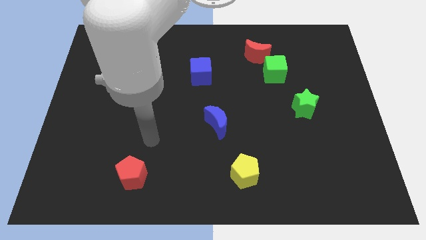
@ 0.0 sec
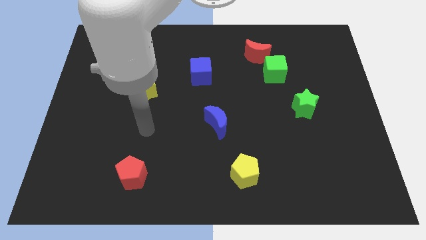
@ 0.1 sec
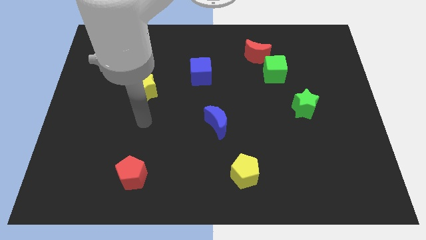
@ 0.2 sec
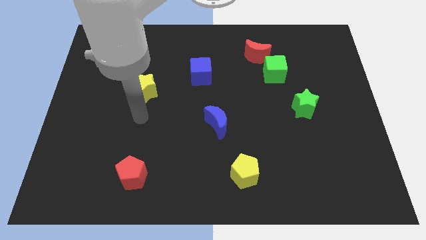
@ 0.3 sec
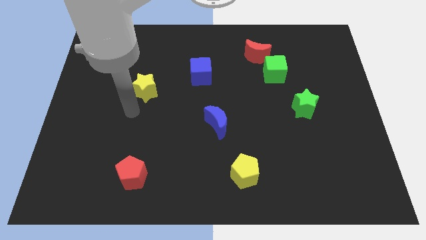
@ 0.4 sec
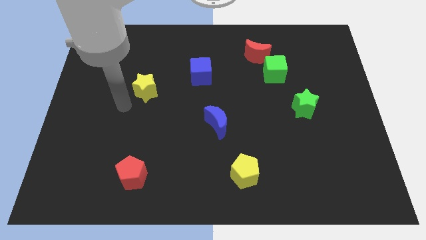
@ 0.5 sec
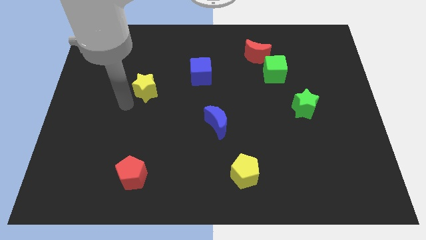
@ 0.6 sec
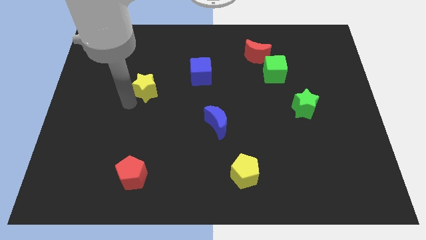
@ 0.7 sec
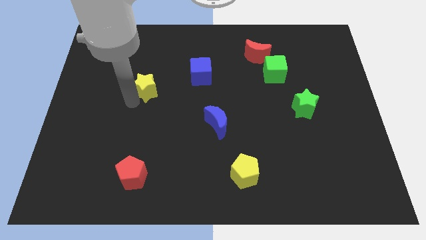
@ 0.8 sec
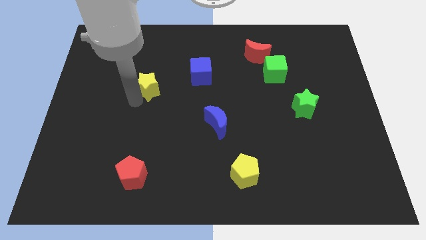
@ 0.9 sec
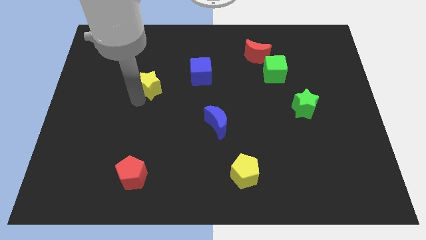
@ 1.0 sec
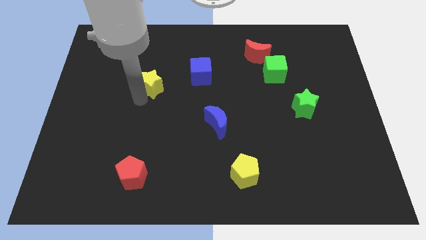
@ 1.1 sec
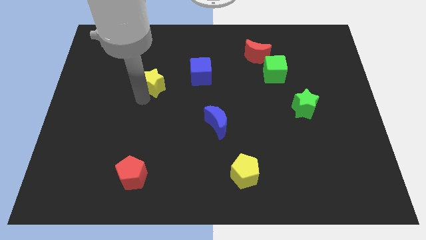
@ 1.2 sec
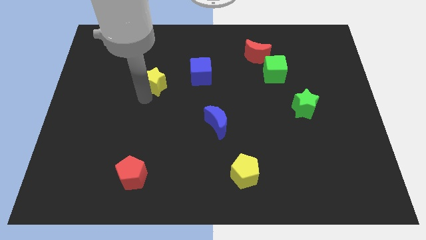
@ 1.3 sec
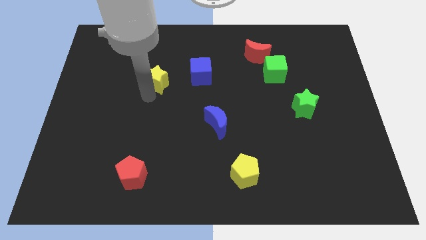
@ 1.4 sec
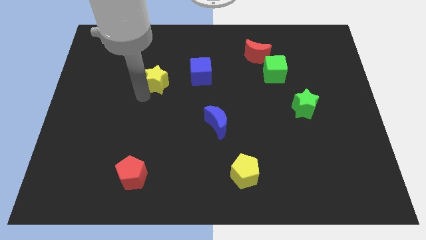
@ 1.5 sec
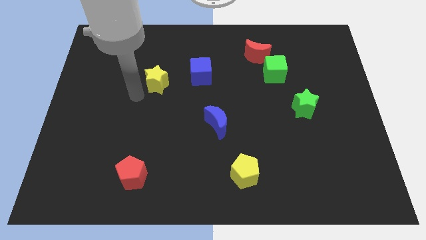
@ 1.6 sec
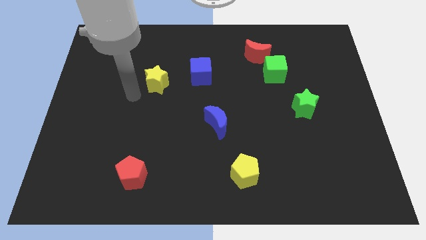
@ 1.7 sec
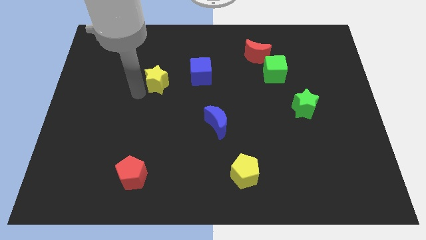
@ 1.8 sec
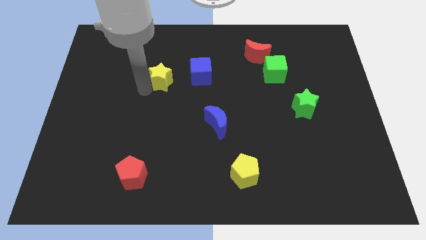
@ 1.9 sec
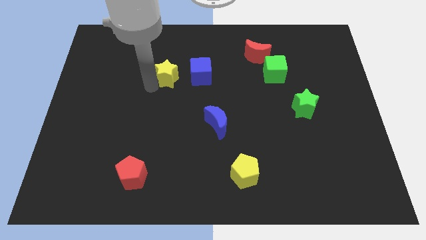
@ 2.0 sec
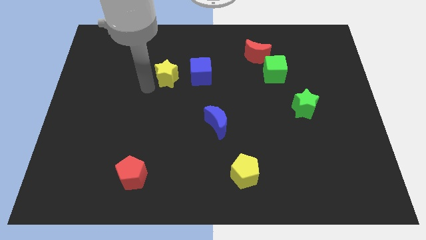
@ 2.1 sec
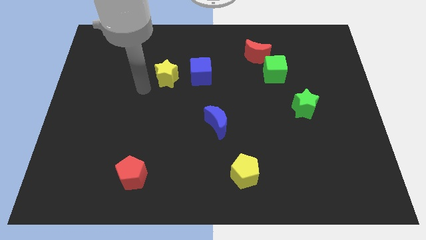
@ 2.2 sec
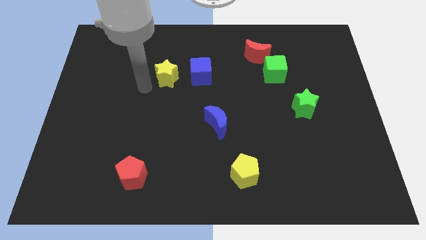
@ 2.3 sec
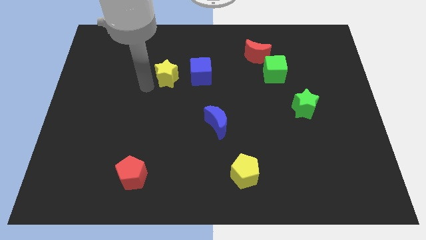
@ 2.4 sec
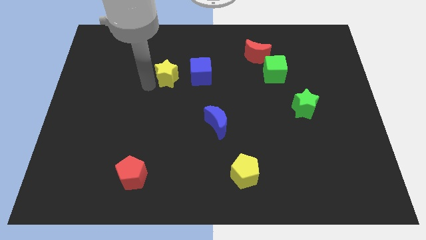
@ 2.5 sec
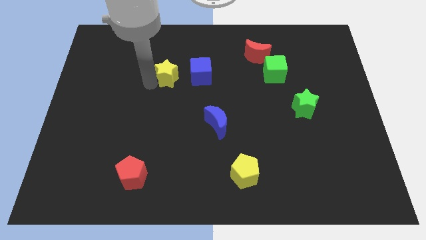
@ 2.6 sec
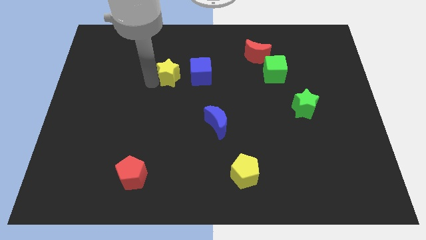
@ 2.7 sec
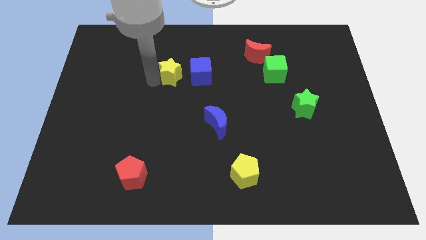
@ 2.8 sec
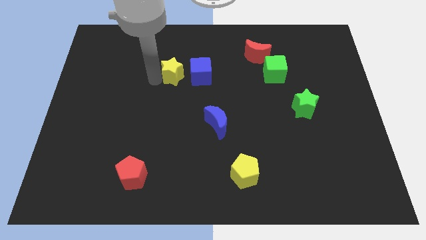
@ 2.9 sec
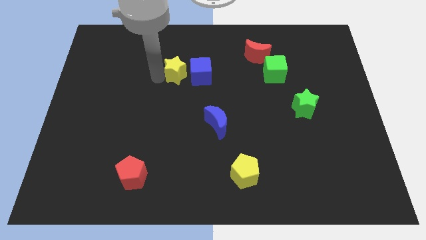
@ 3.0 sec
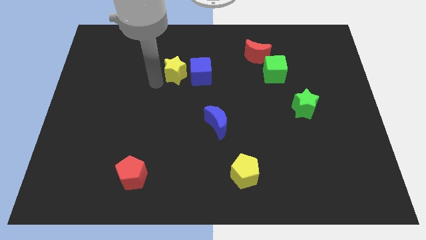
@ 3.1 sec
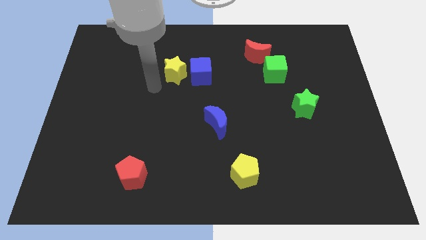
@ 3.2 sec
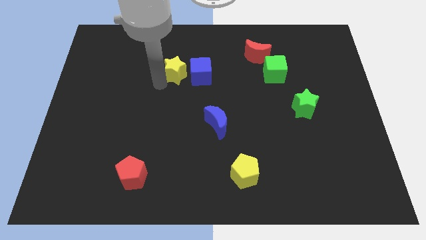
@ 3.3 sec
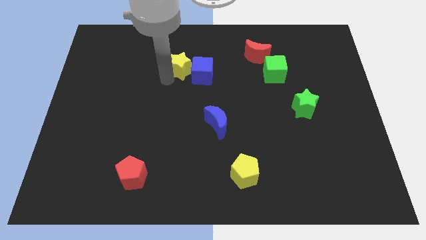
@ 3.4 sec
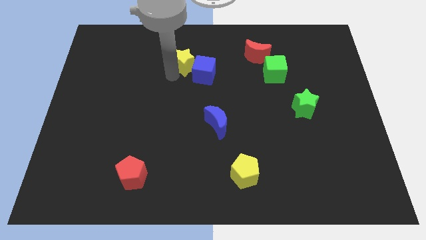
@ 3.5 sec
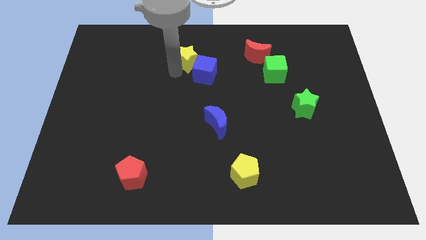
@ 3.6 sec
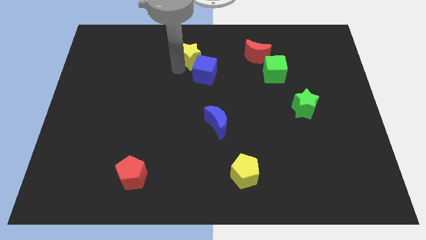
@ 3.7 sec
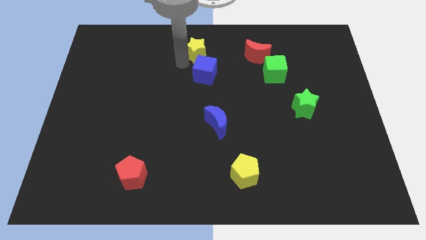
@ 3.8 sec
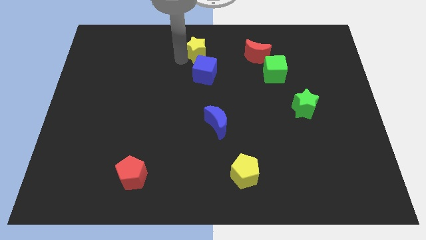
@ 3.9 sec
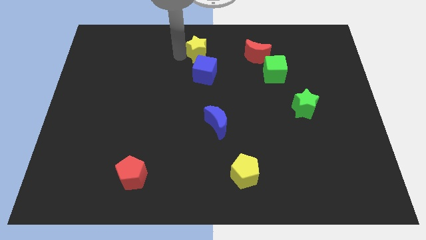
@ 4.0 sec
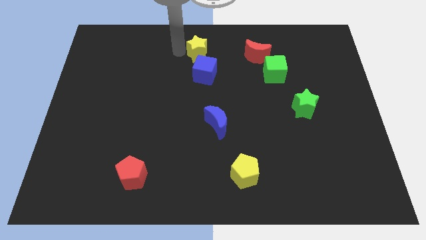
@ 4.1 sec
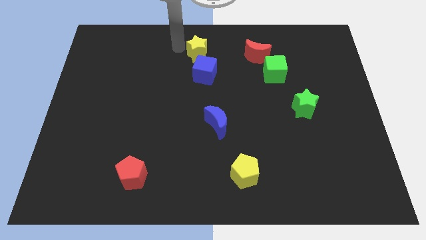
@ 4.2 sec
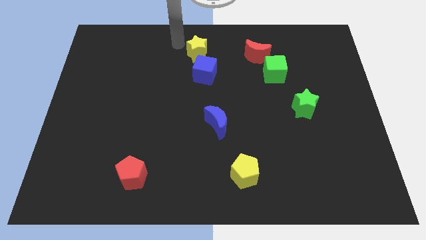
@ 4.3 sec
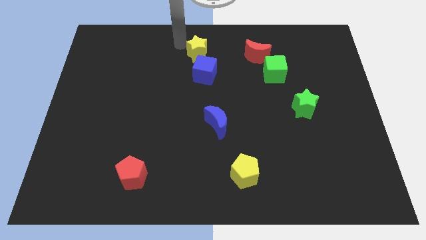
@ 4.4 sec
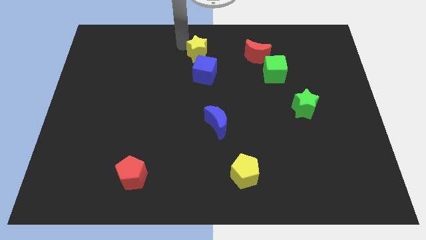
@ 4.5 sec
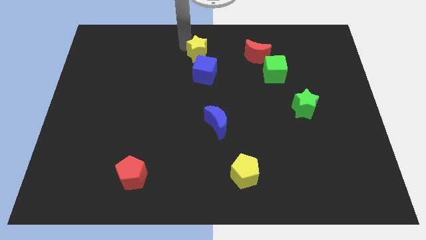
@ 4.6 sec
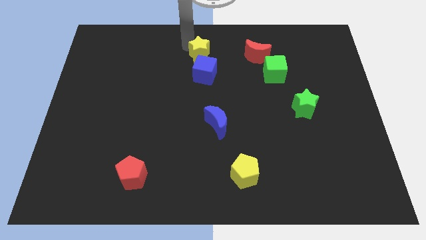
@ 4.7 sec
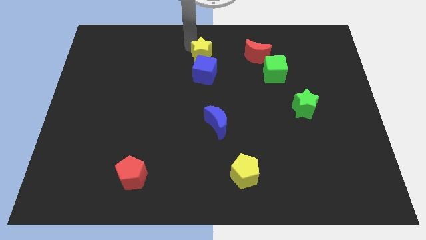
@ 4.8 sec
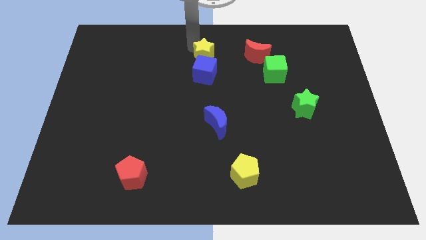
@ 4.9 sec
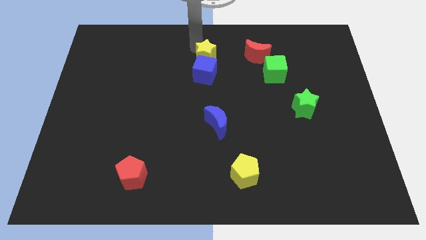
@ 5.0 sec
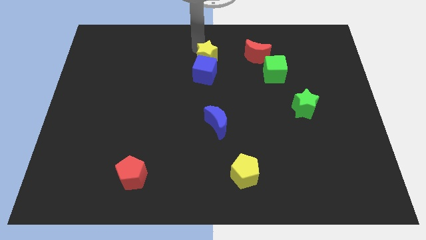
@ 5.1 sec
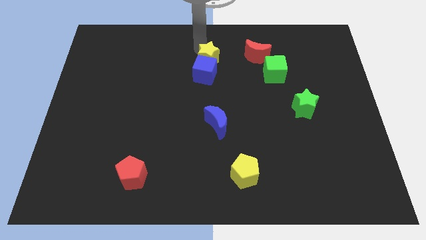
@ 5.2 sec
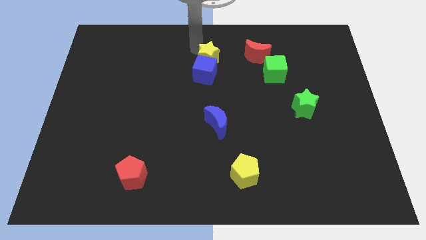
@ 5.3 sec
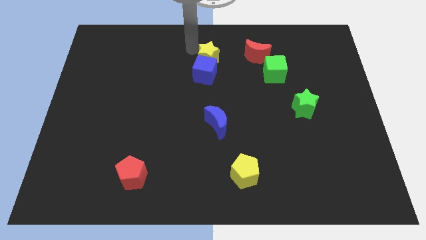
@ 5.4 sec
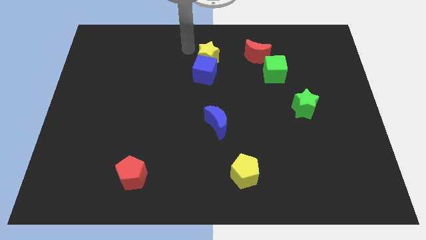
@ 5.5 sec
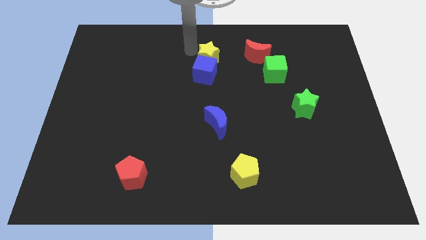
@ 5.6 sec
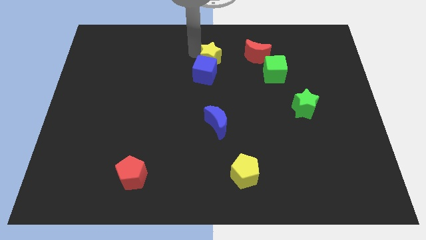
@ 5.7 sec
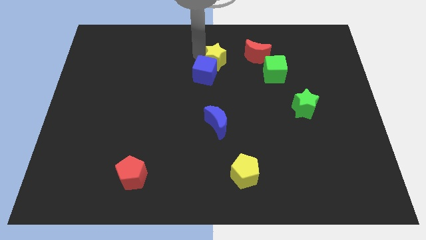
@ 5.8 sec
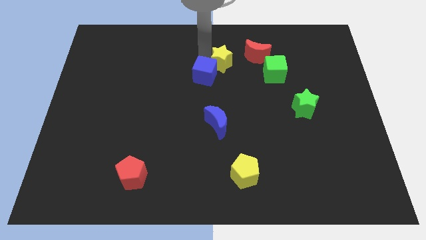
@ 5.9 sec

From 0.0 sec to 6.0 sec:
put the yellow star to the bottom left of the red moon

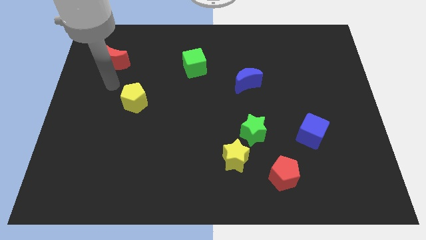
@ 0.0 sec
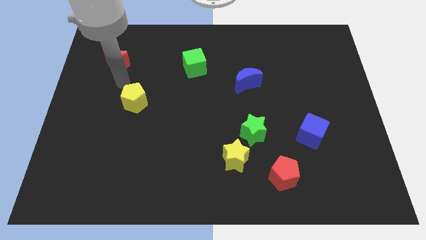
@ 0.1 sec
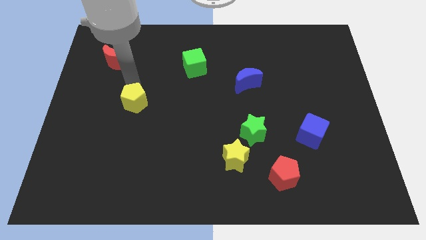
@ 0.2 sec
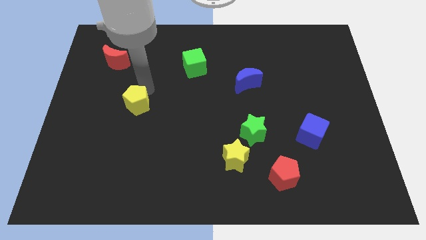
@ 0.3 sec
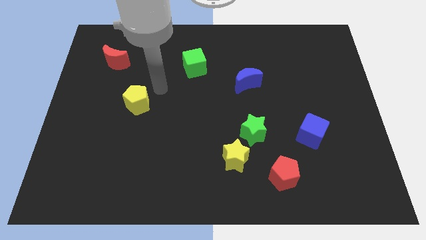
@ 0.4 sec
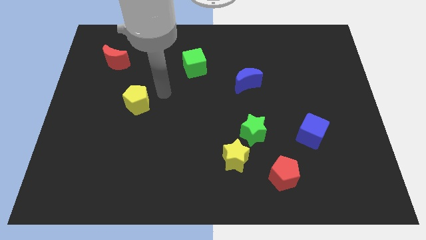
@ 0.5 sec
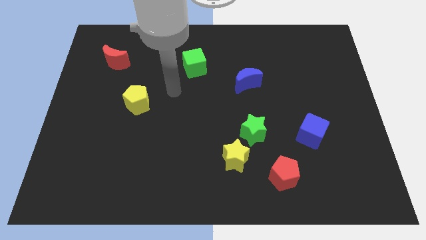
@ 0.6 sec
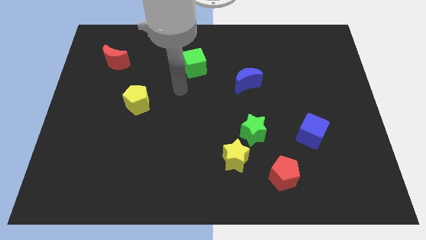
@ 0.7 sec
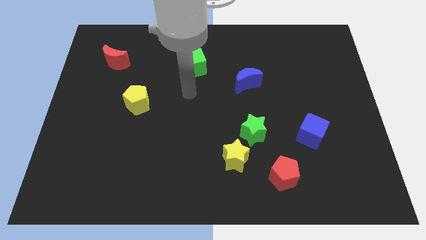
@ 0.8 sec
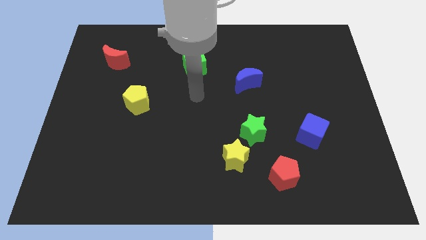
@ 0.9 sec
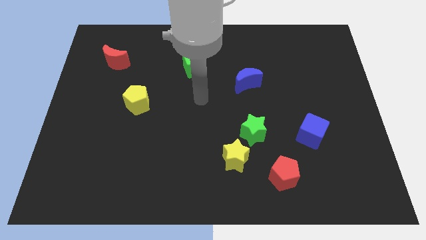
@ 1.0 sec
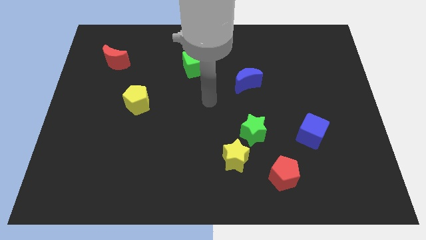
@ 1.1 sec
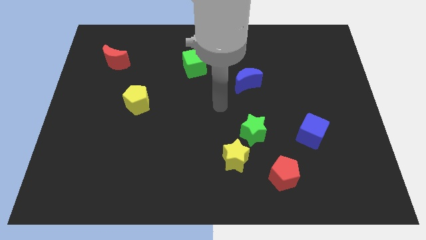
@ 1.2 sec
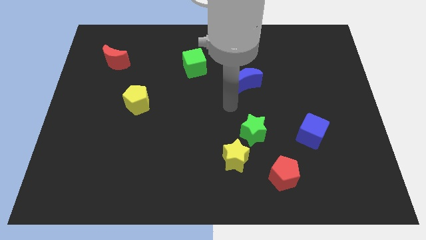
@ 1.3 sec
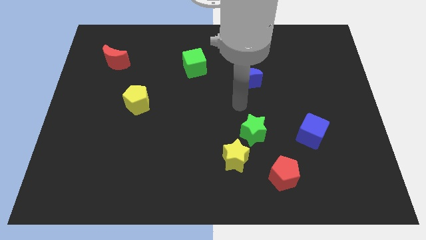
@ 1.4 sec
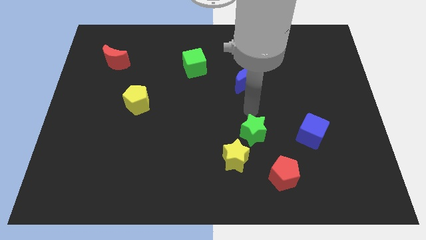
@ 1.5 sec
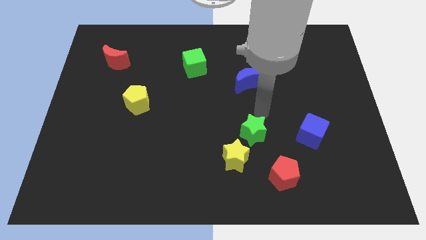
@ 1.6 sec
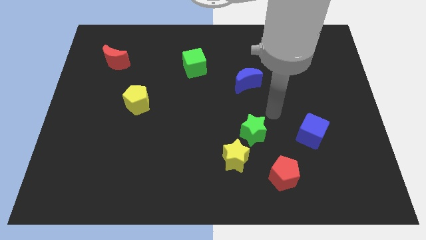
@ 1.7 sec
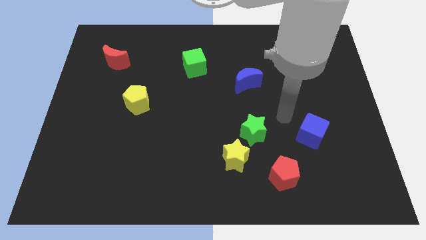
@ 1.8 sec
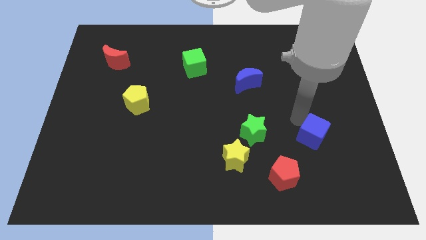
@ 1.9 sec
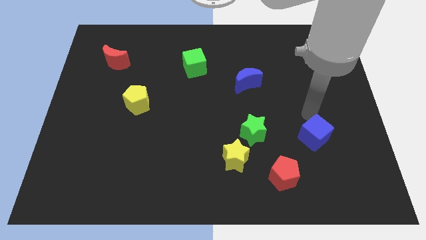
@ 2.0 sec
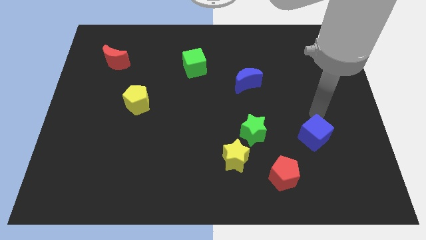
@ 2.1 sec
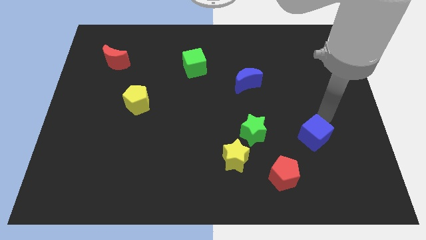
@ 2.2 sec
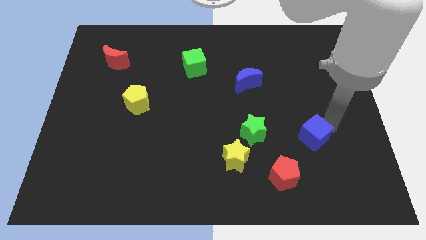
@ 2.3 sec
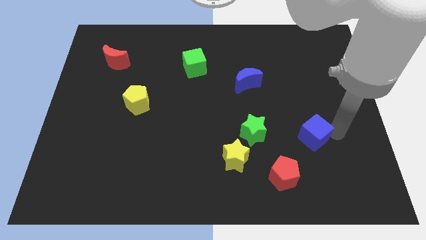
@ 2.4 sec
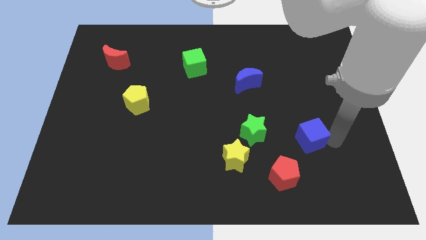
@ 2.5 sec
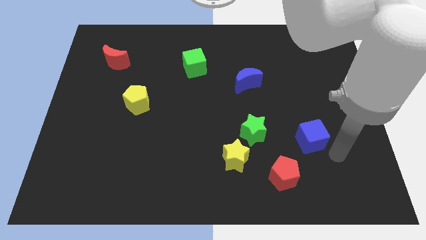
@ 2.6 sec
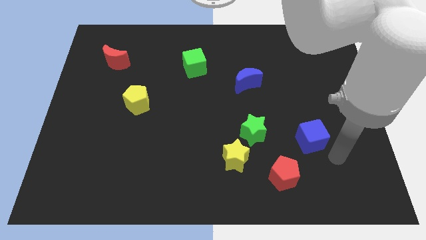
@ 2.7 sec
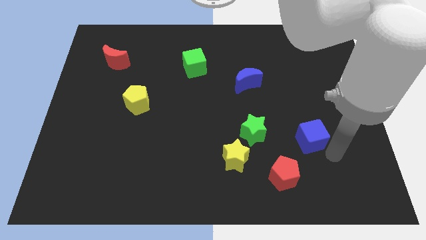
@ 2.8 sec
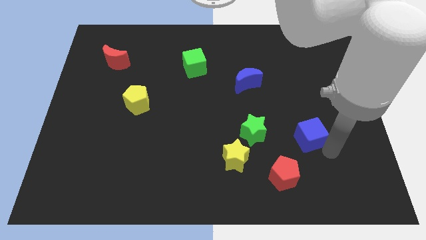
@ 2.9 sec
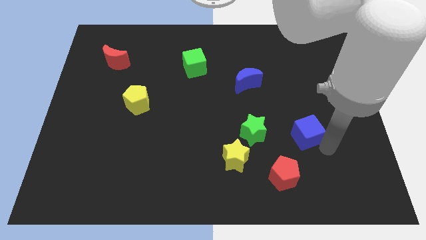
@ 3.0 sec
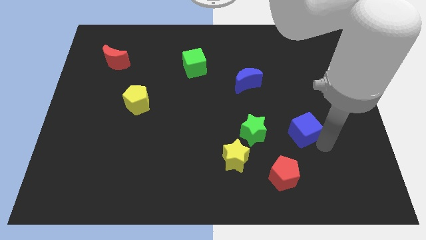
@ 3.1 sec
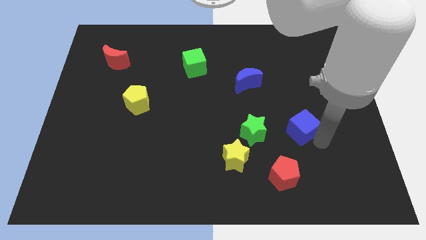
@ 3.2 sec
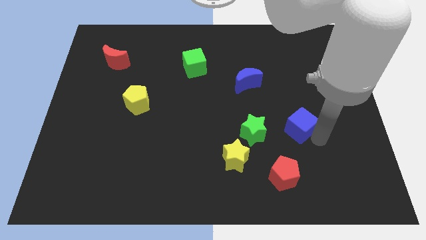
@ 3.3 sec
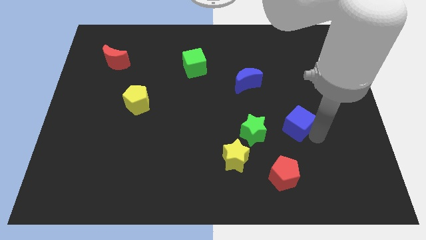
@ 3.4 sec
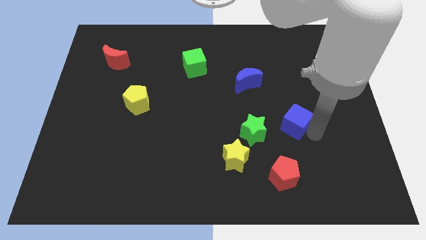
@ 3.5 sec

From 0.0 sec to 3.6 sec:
push the blue cube to the top right of the green star
